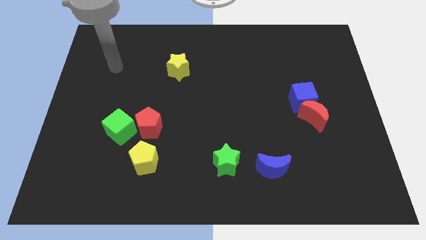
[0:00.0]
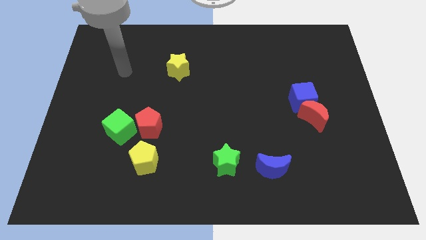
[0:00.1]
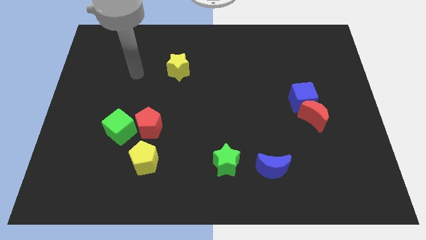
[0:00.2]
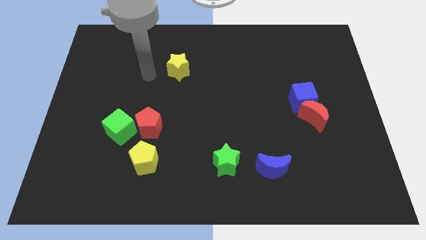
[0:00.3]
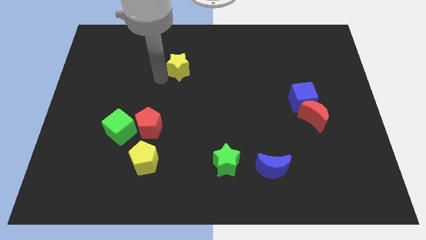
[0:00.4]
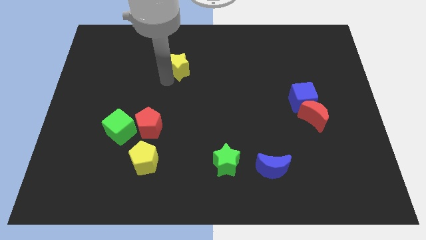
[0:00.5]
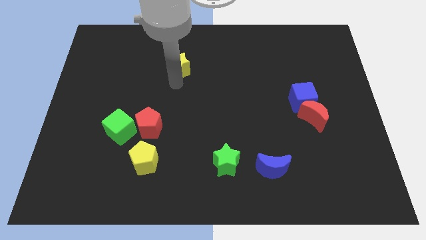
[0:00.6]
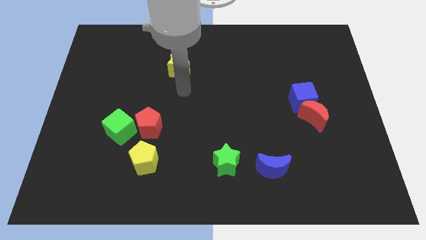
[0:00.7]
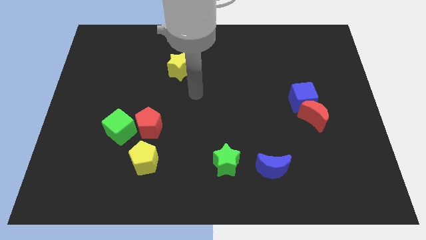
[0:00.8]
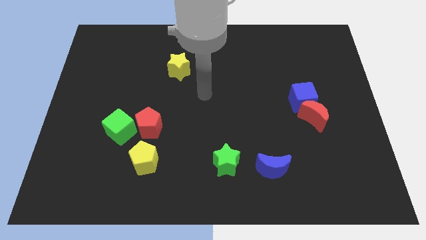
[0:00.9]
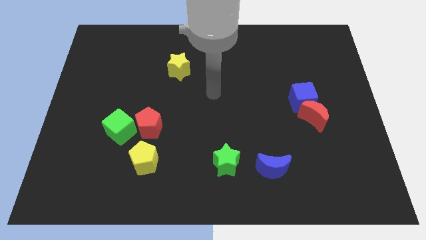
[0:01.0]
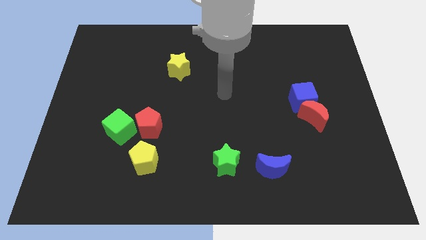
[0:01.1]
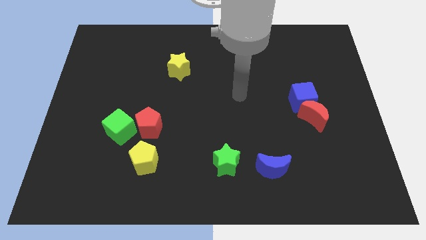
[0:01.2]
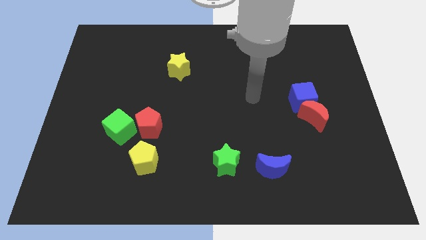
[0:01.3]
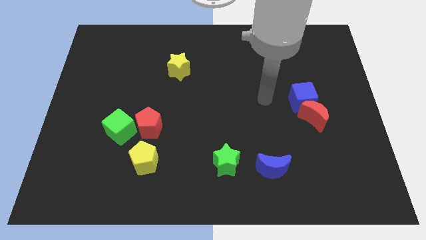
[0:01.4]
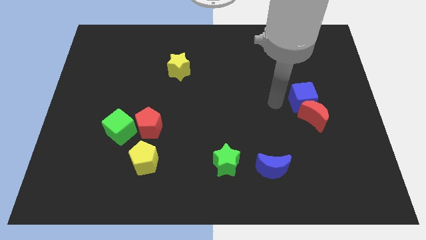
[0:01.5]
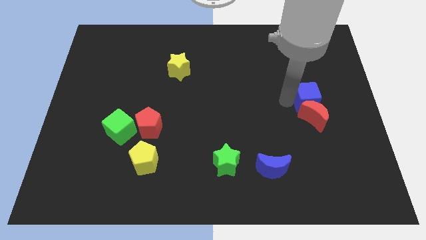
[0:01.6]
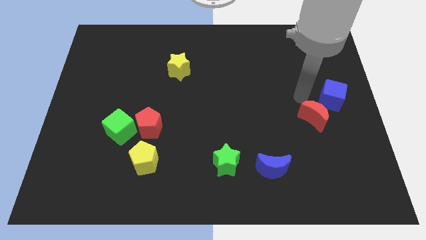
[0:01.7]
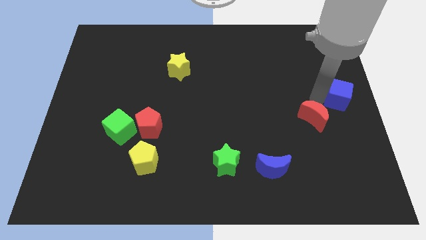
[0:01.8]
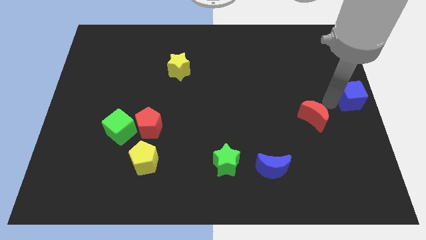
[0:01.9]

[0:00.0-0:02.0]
move the red moon away from the blue cube

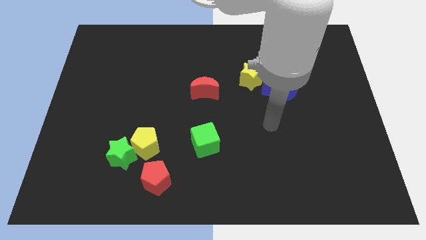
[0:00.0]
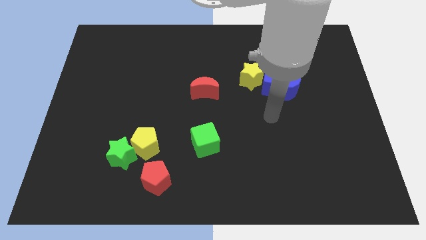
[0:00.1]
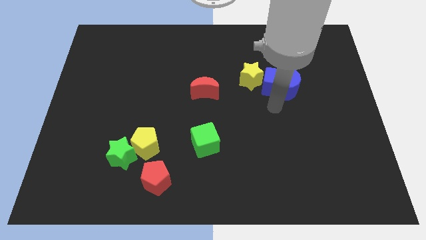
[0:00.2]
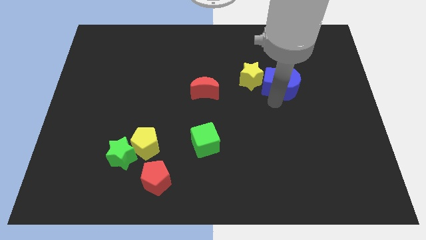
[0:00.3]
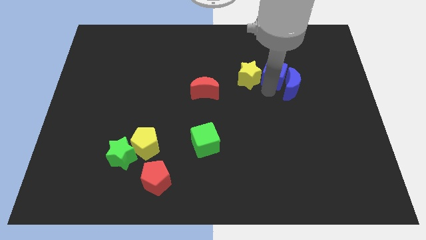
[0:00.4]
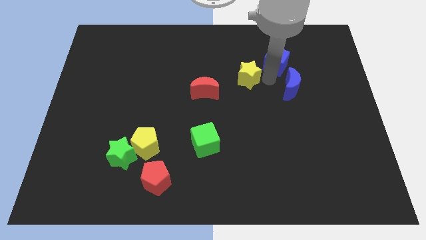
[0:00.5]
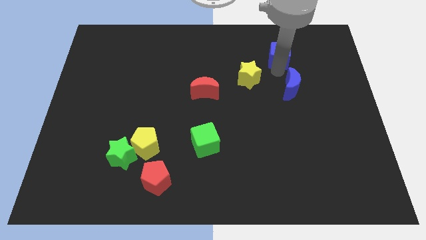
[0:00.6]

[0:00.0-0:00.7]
move the blue moon away from the blue cube

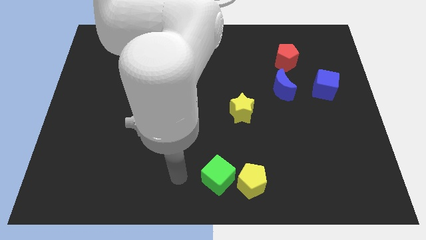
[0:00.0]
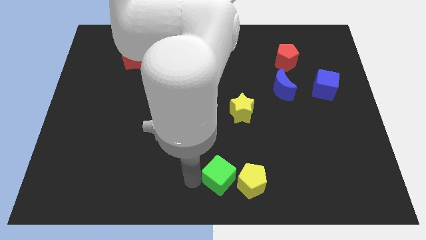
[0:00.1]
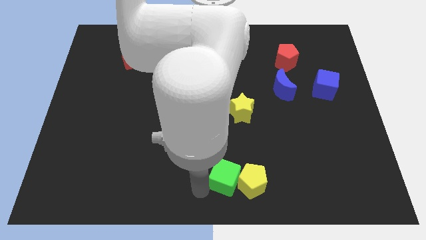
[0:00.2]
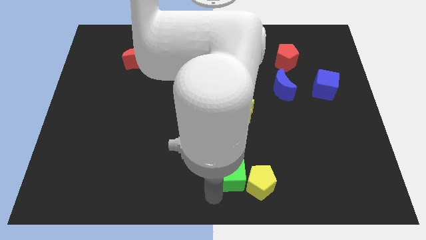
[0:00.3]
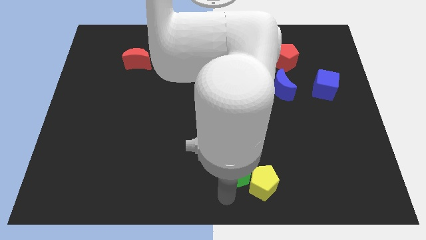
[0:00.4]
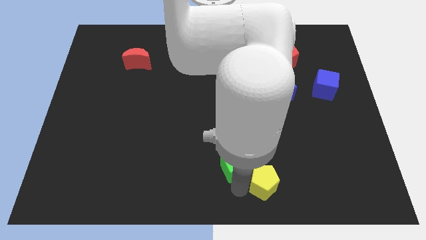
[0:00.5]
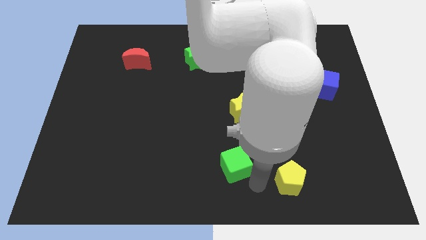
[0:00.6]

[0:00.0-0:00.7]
pull the green cube apart from the yellow pentagon

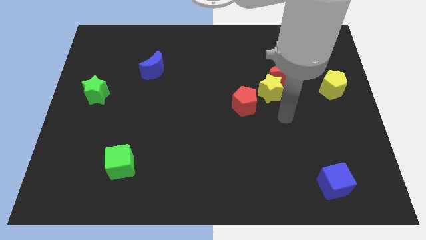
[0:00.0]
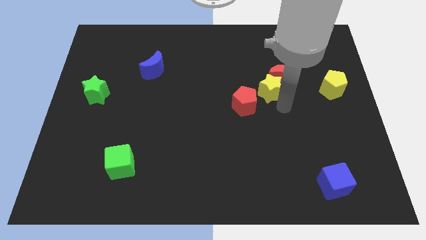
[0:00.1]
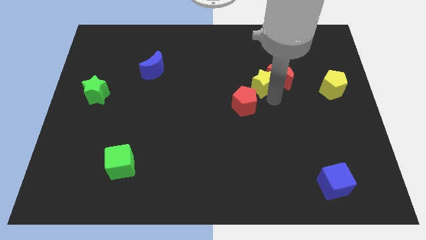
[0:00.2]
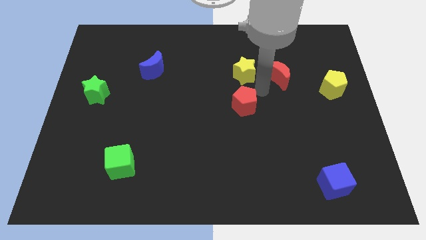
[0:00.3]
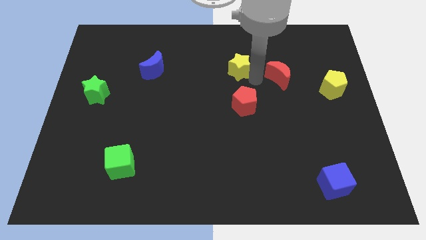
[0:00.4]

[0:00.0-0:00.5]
pull the red moon apart from the yellow star

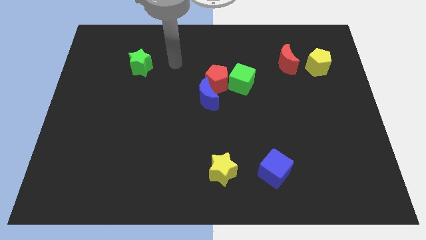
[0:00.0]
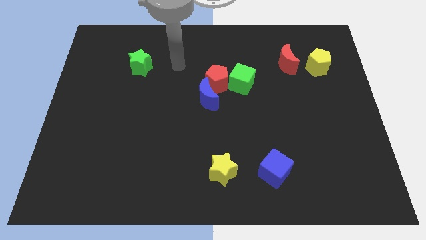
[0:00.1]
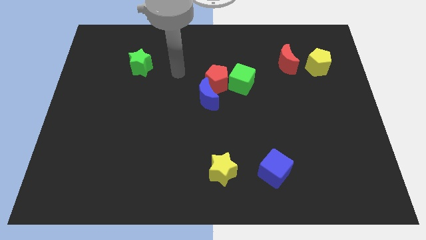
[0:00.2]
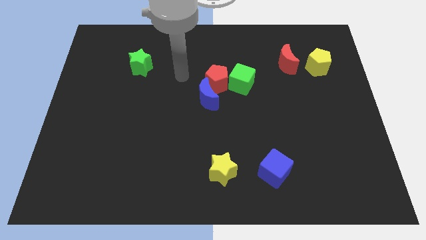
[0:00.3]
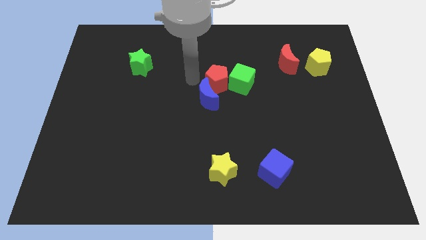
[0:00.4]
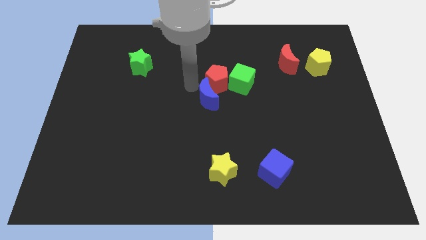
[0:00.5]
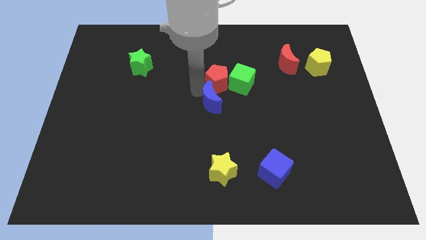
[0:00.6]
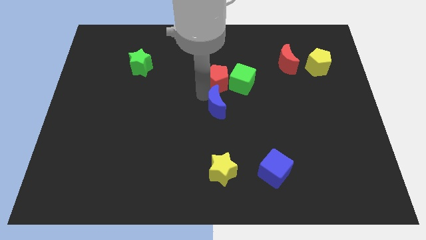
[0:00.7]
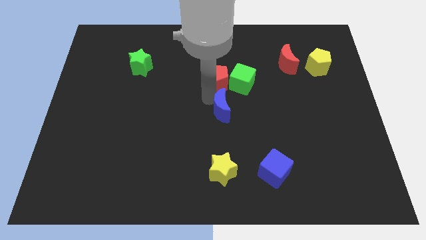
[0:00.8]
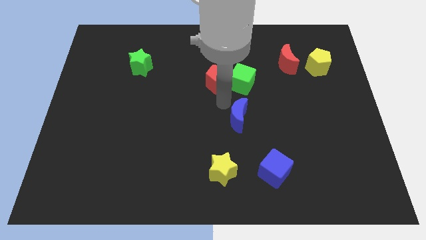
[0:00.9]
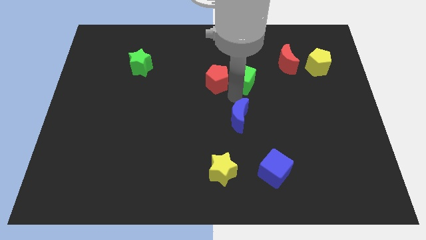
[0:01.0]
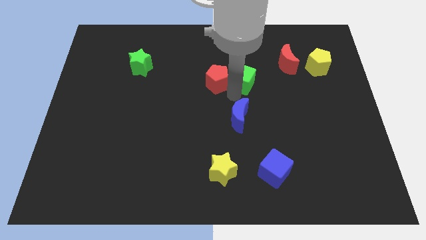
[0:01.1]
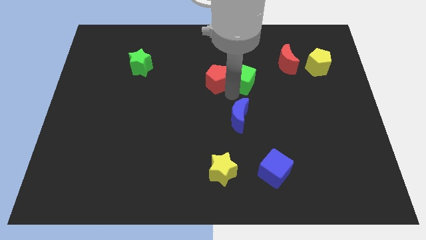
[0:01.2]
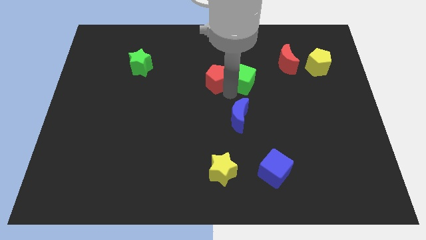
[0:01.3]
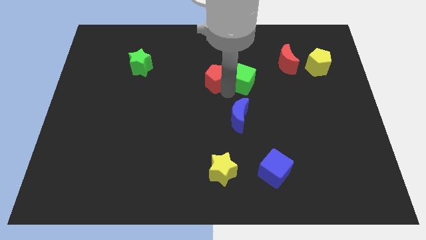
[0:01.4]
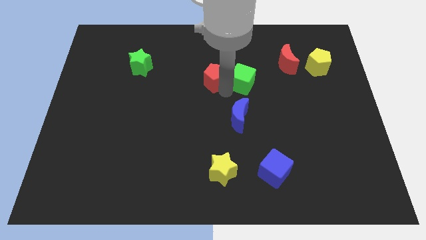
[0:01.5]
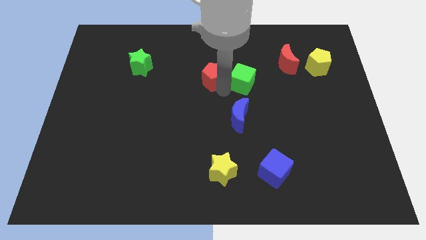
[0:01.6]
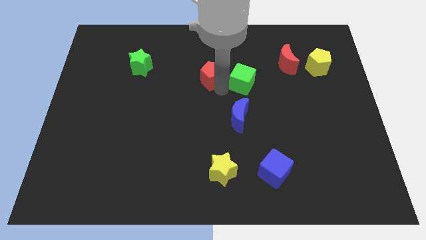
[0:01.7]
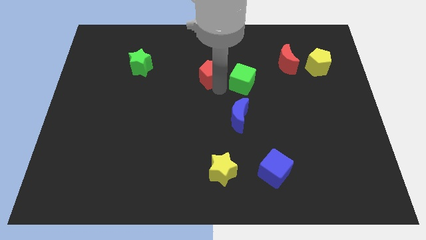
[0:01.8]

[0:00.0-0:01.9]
move the red pentagon away from the blue moon and green cube

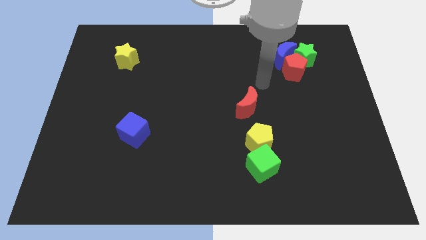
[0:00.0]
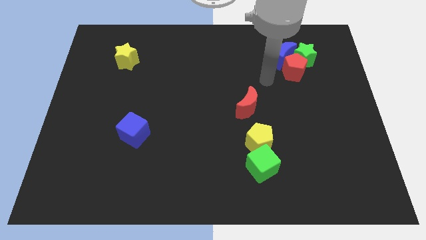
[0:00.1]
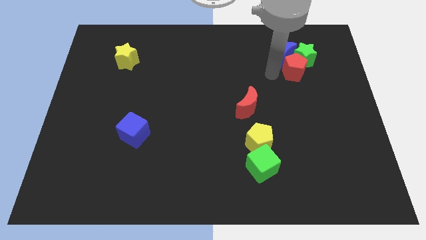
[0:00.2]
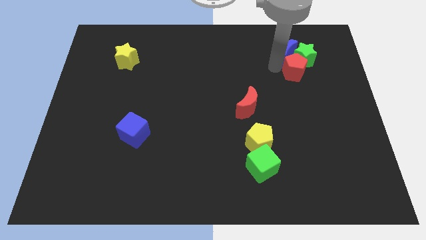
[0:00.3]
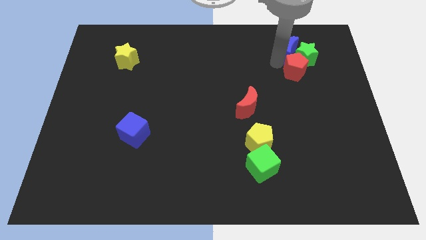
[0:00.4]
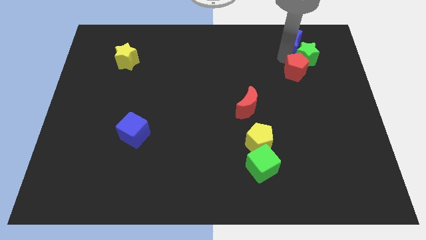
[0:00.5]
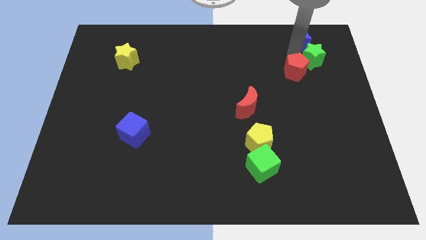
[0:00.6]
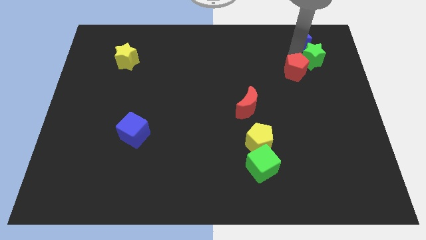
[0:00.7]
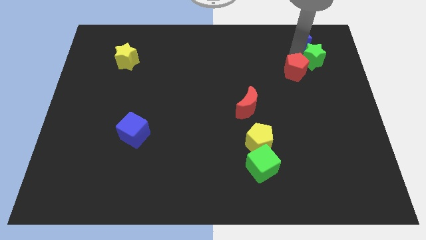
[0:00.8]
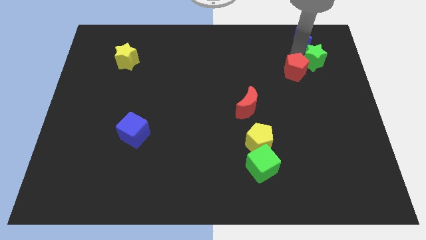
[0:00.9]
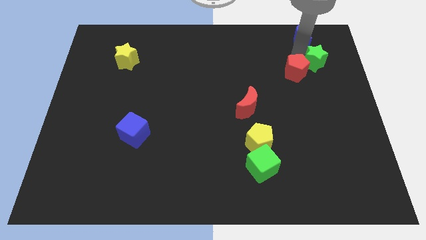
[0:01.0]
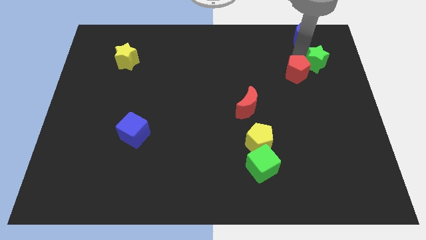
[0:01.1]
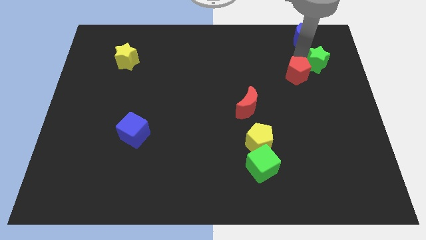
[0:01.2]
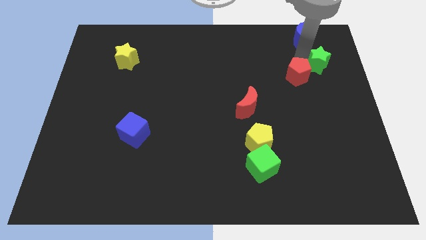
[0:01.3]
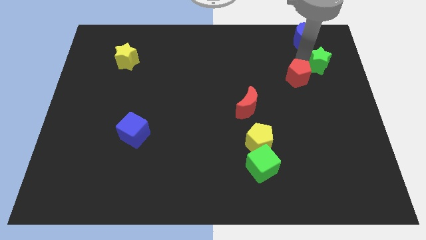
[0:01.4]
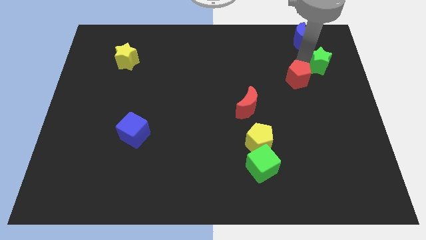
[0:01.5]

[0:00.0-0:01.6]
pull the red pentagon apart from the green star and blue moon

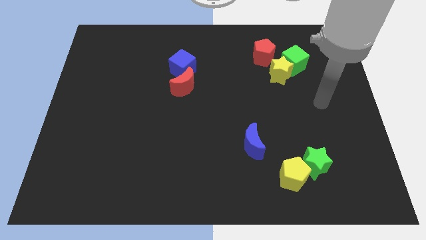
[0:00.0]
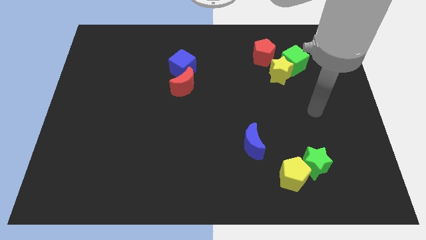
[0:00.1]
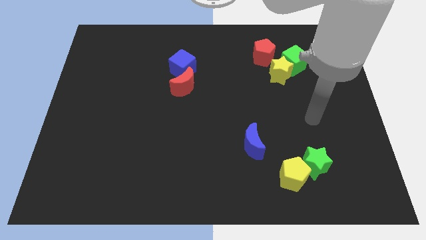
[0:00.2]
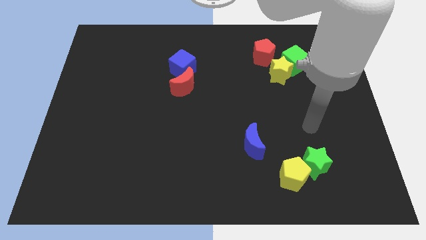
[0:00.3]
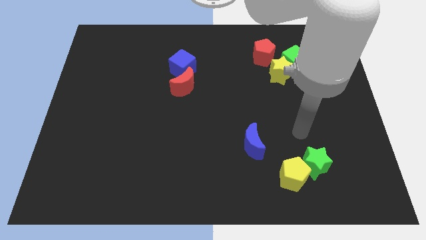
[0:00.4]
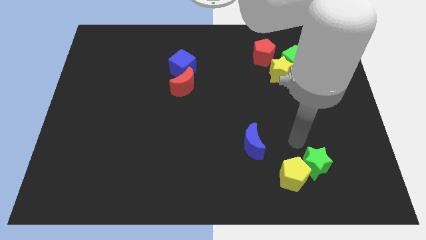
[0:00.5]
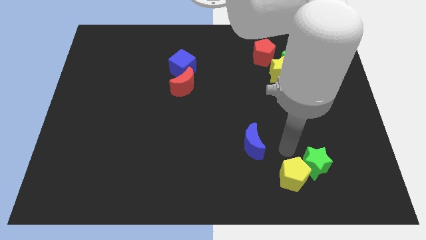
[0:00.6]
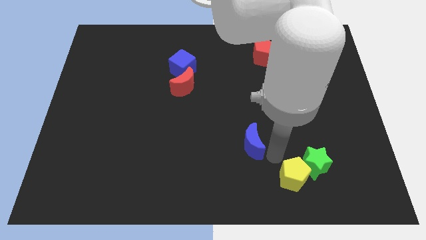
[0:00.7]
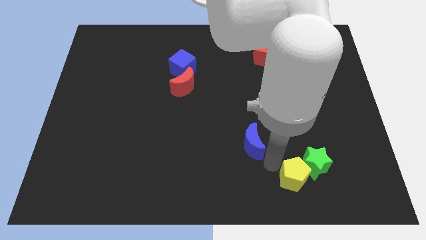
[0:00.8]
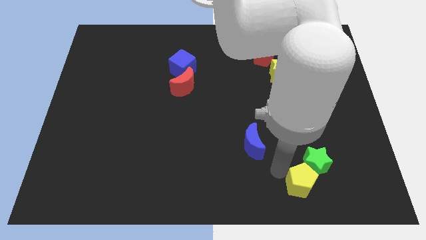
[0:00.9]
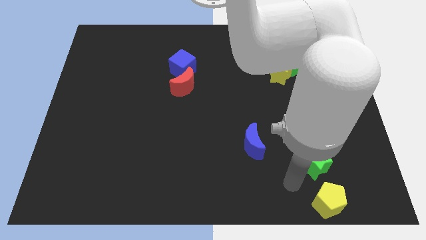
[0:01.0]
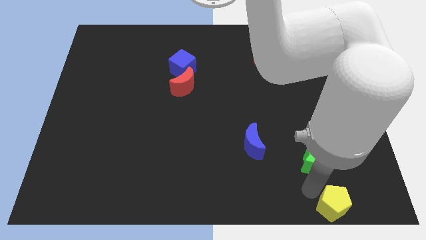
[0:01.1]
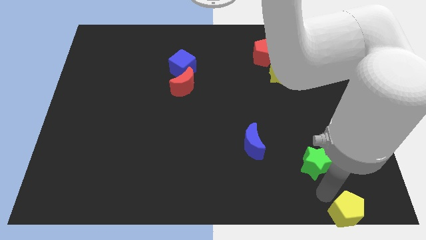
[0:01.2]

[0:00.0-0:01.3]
pull the green star apart from the yellow pentagon

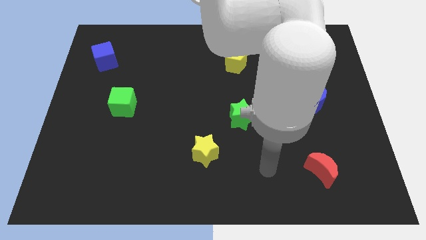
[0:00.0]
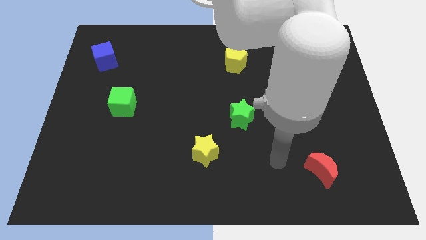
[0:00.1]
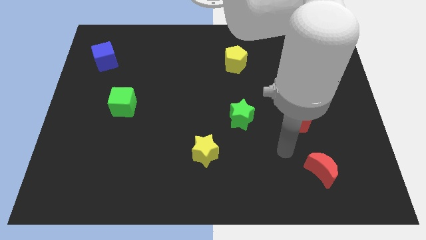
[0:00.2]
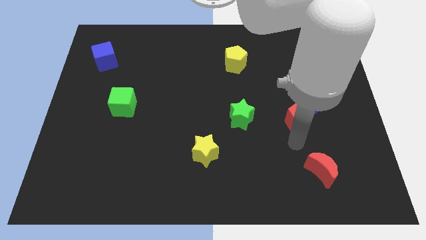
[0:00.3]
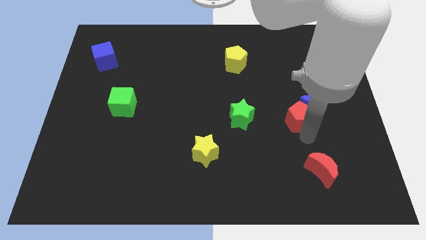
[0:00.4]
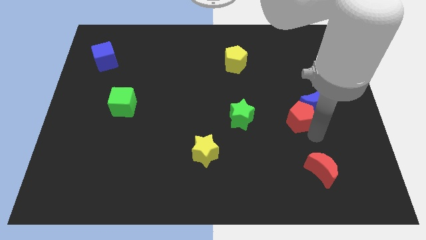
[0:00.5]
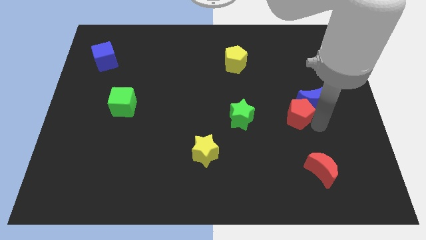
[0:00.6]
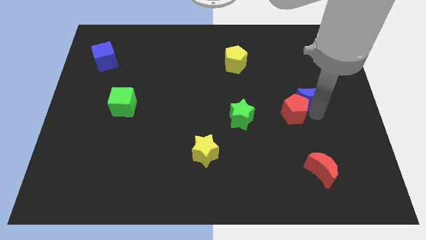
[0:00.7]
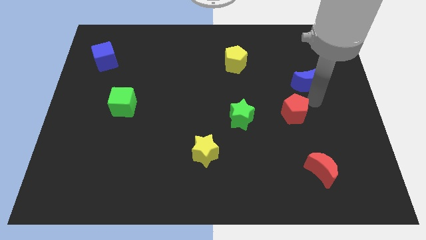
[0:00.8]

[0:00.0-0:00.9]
pull the red pentagon apart from the blue moon
